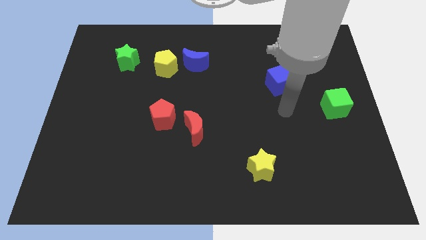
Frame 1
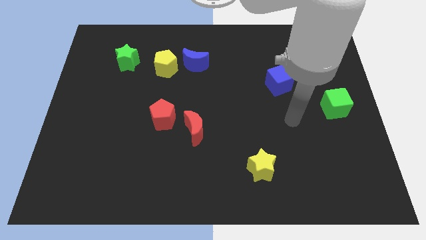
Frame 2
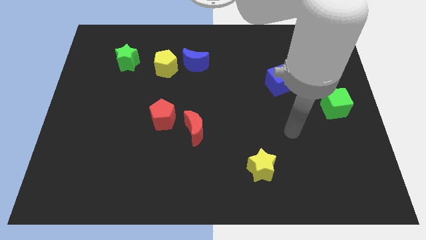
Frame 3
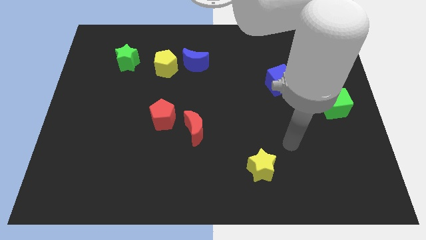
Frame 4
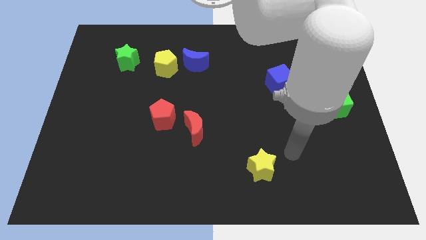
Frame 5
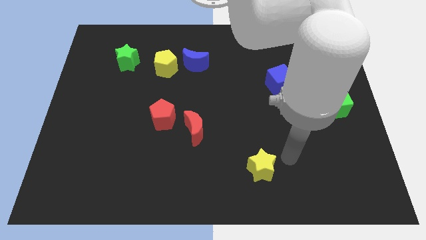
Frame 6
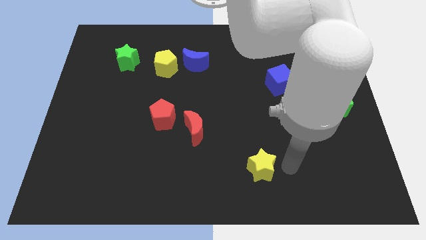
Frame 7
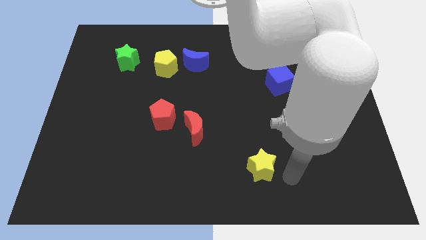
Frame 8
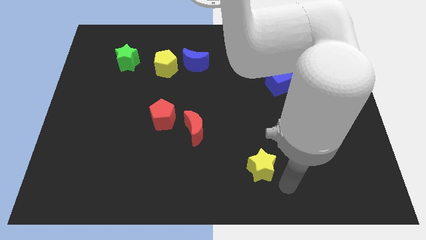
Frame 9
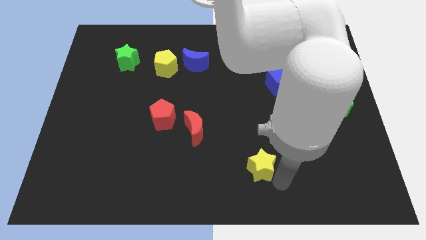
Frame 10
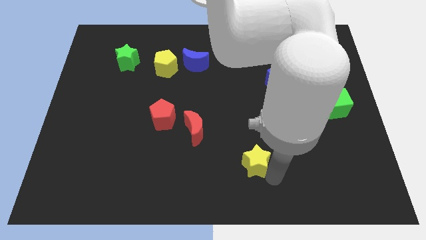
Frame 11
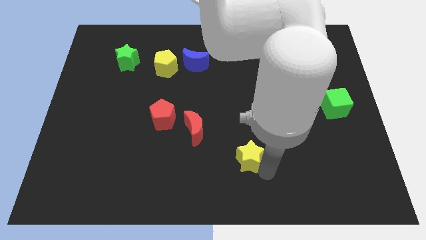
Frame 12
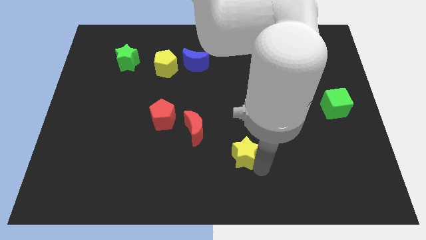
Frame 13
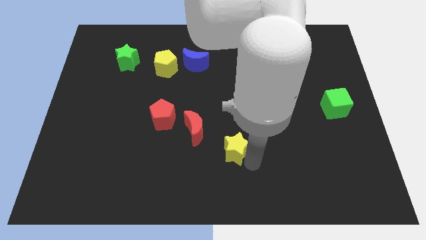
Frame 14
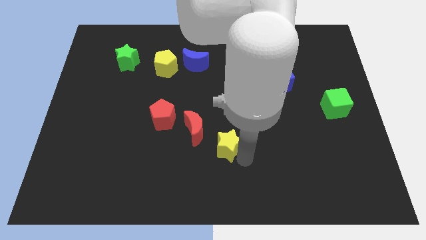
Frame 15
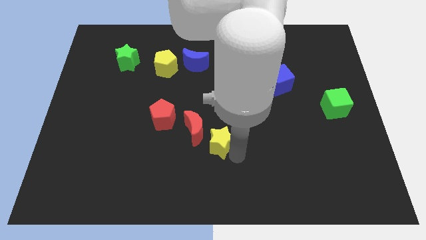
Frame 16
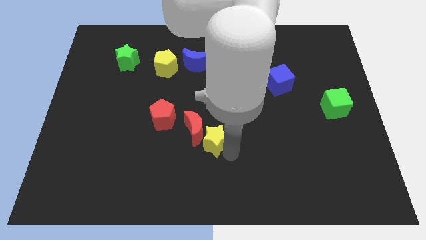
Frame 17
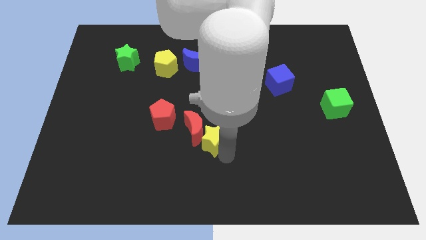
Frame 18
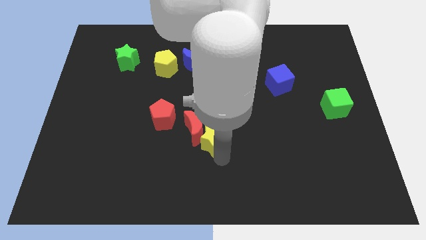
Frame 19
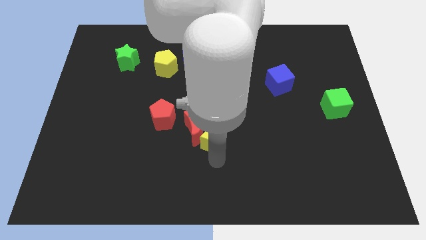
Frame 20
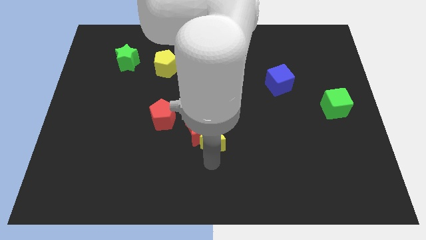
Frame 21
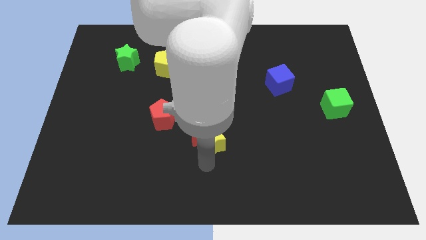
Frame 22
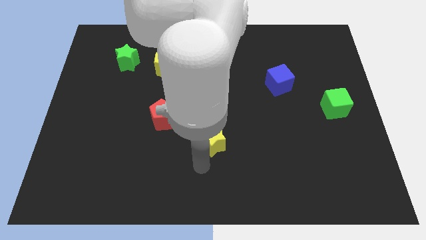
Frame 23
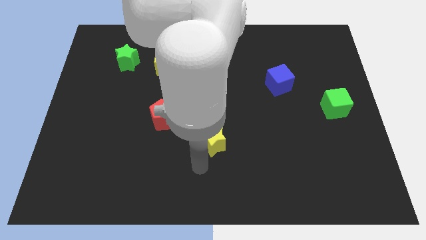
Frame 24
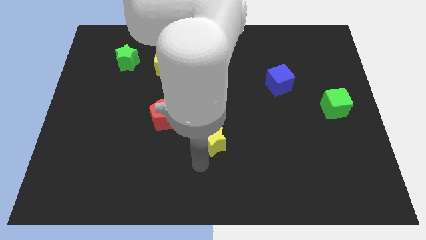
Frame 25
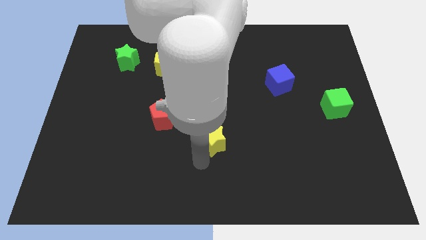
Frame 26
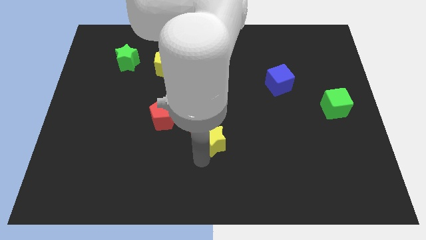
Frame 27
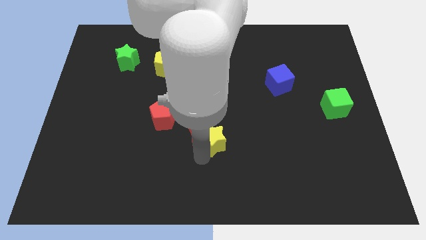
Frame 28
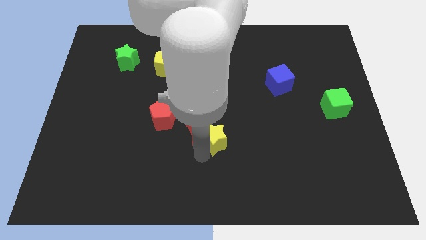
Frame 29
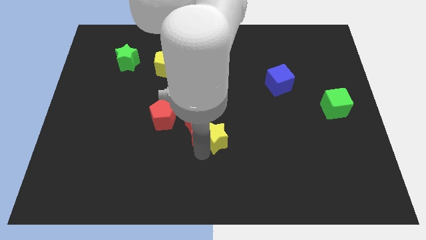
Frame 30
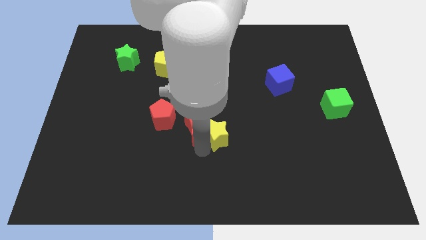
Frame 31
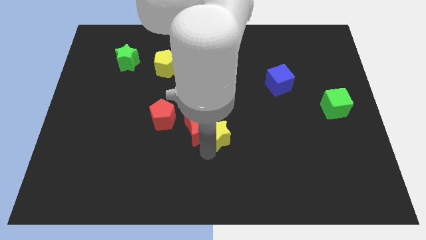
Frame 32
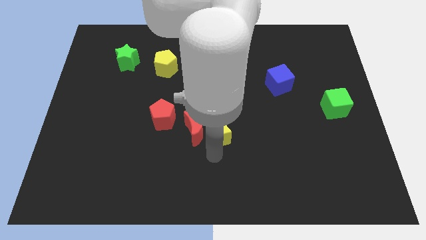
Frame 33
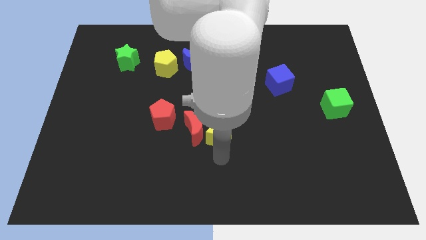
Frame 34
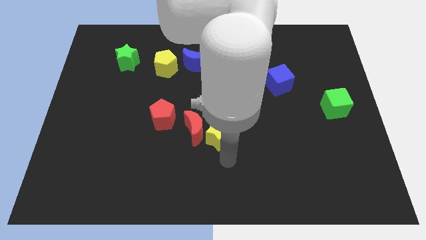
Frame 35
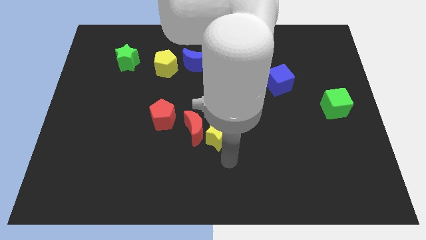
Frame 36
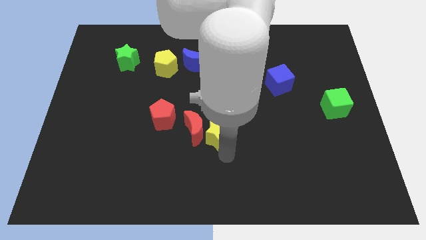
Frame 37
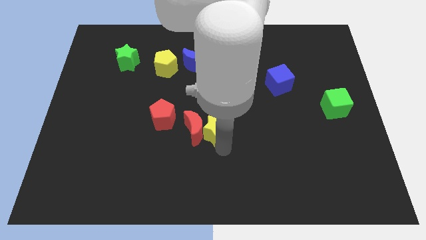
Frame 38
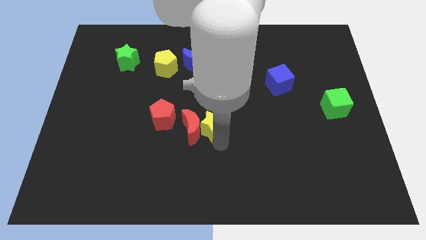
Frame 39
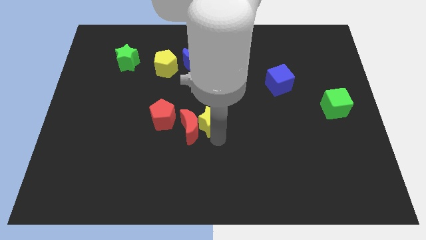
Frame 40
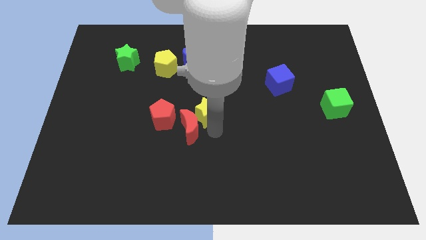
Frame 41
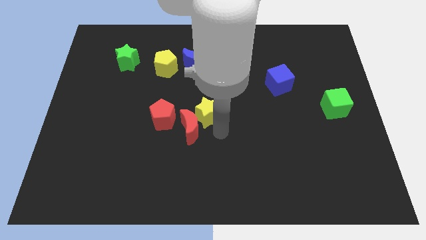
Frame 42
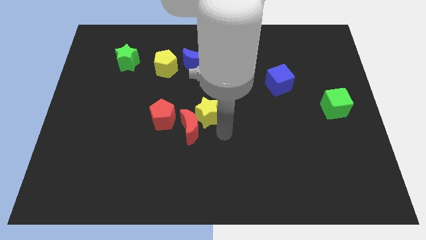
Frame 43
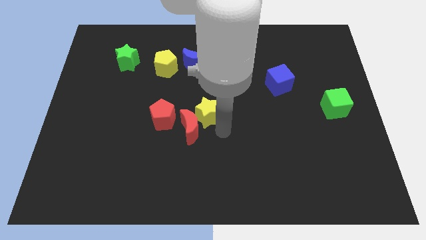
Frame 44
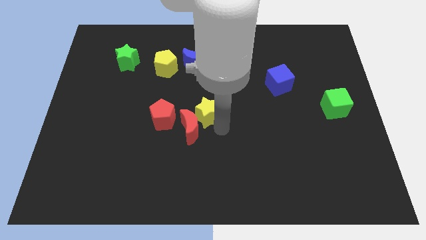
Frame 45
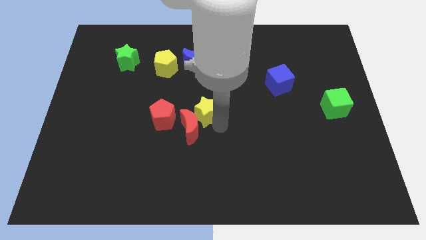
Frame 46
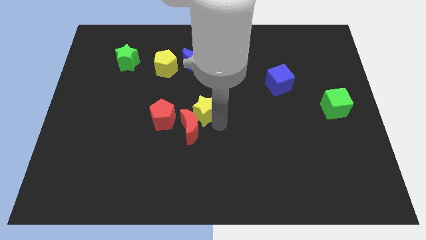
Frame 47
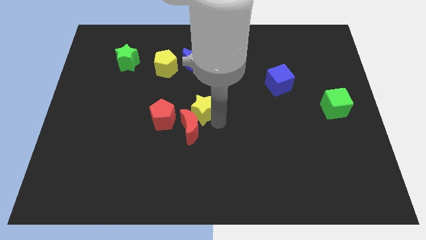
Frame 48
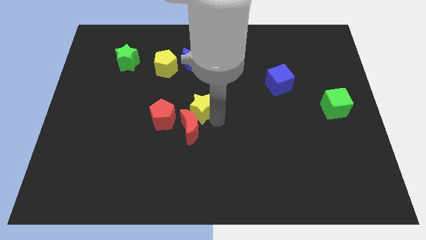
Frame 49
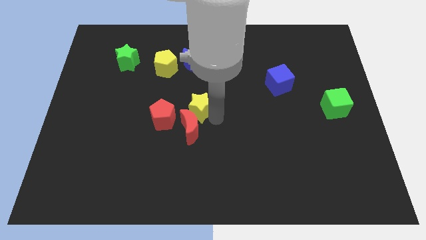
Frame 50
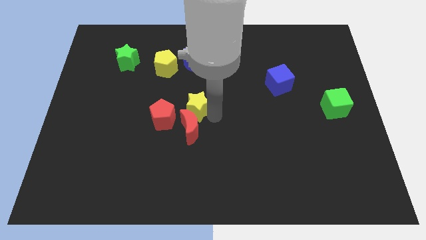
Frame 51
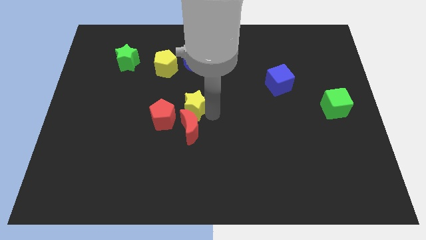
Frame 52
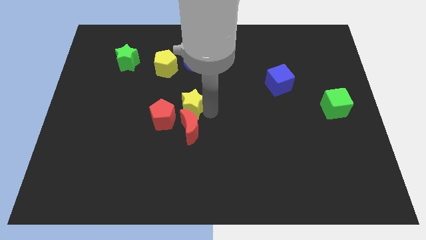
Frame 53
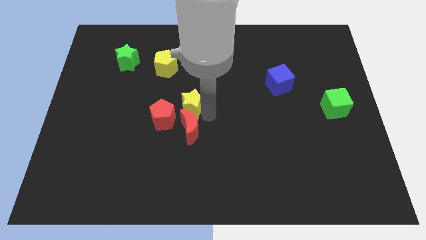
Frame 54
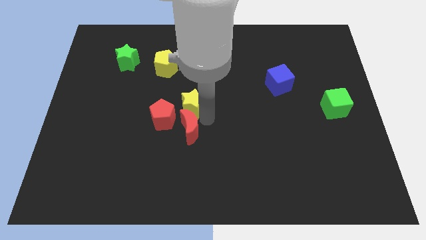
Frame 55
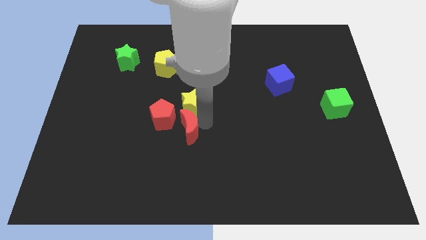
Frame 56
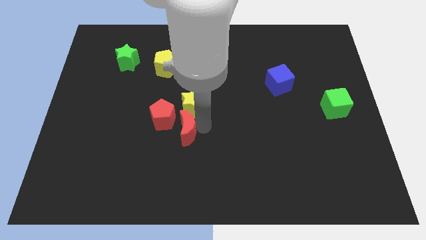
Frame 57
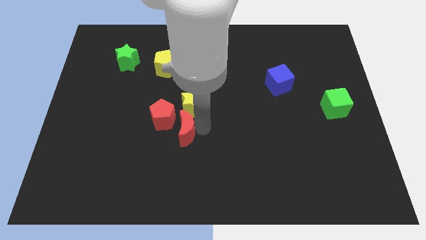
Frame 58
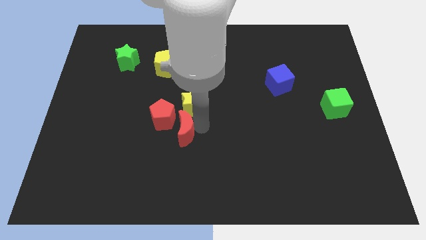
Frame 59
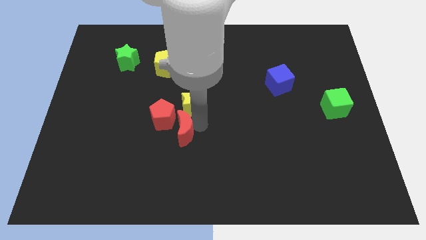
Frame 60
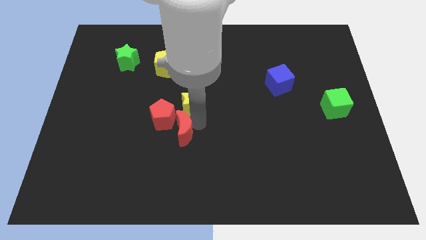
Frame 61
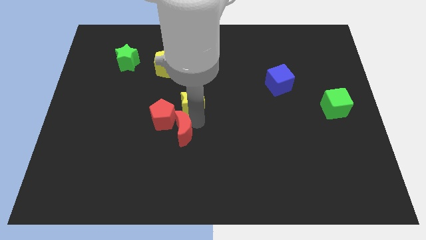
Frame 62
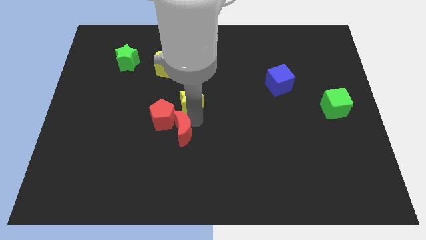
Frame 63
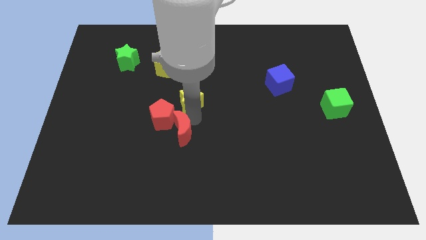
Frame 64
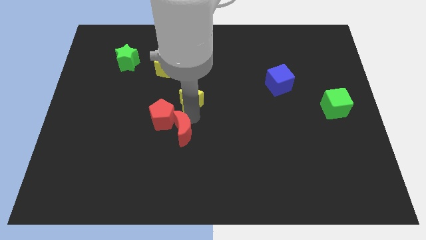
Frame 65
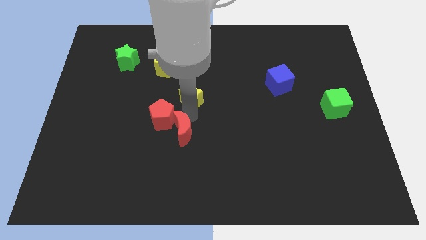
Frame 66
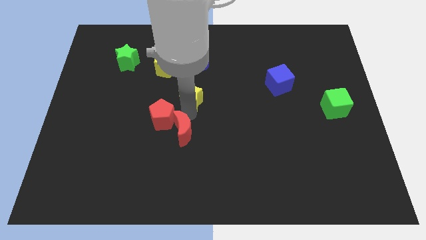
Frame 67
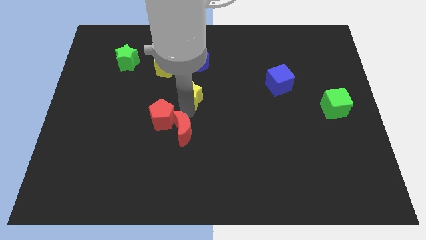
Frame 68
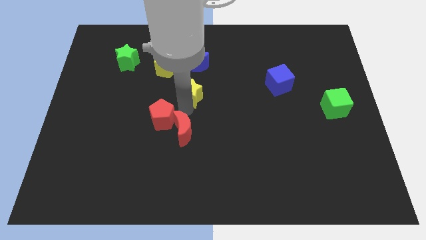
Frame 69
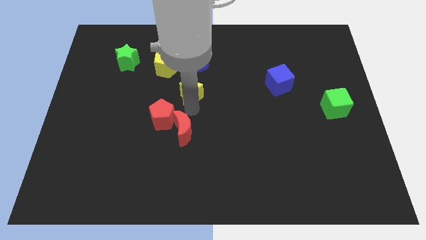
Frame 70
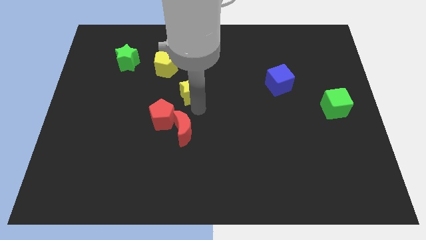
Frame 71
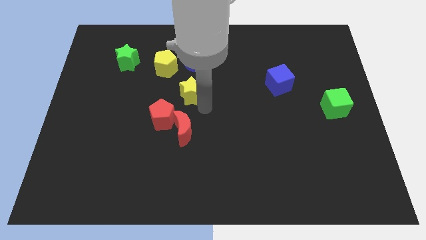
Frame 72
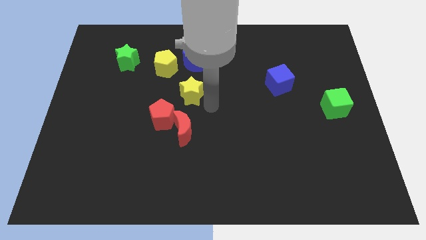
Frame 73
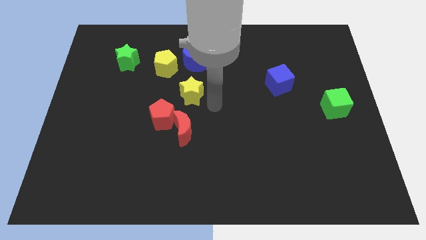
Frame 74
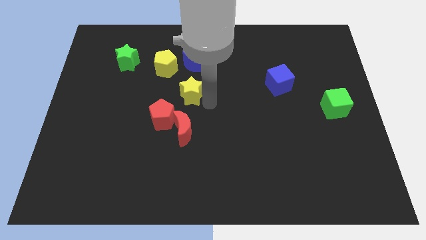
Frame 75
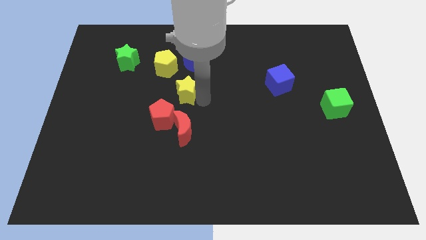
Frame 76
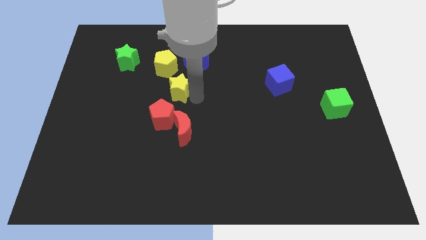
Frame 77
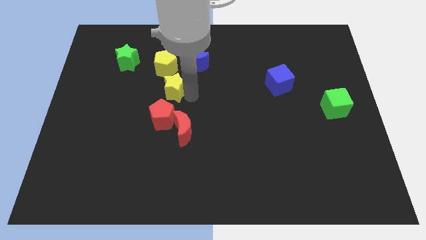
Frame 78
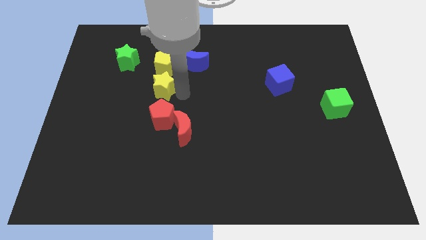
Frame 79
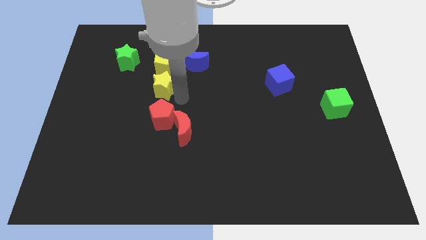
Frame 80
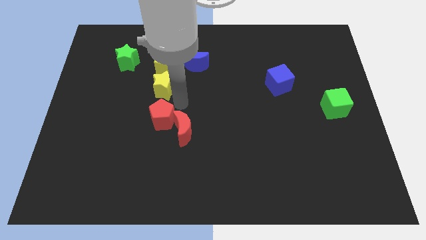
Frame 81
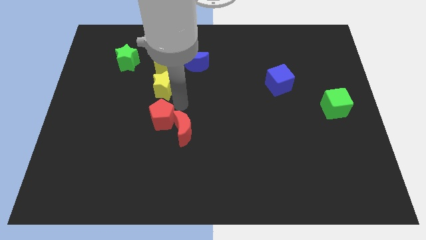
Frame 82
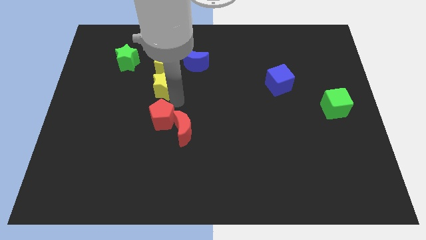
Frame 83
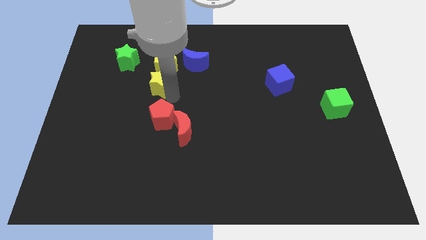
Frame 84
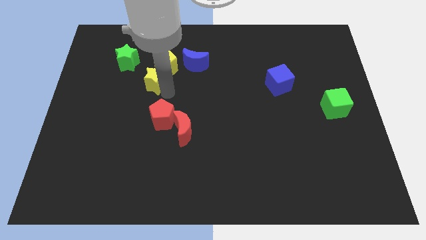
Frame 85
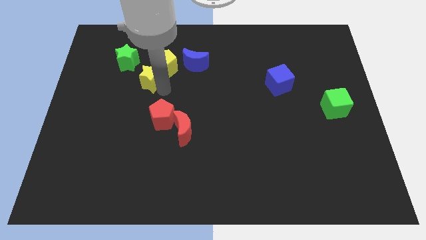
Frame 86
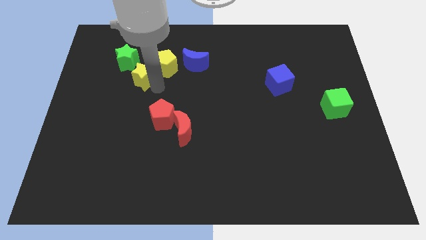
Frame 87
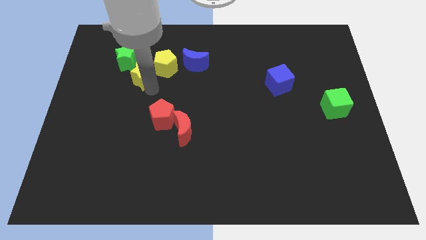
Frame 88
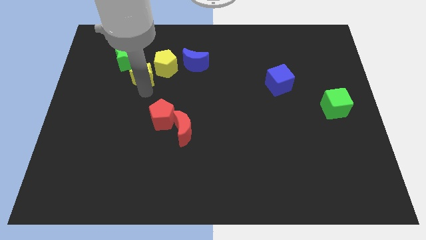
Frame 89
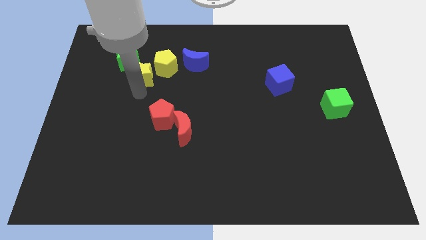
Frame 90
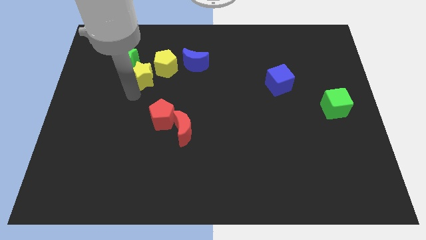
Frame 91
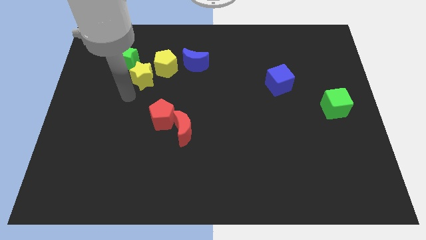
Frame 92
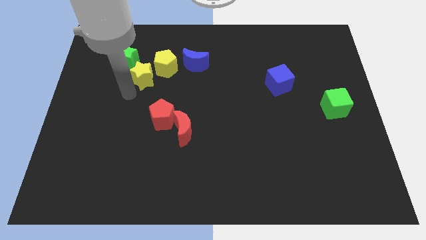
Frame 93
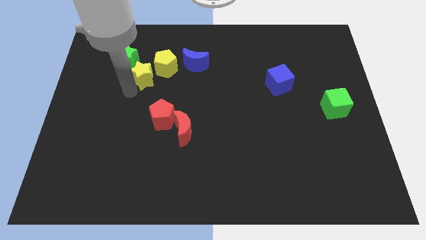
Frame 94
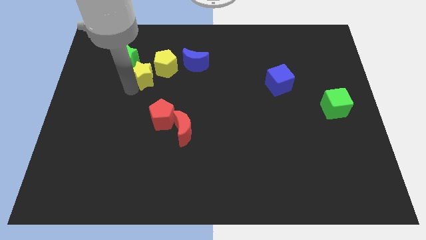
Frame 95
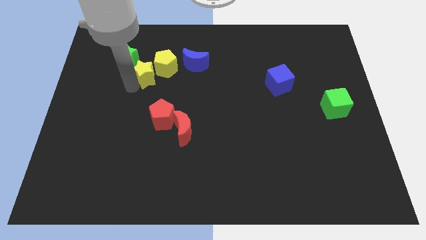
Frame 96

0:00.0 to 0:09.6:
put the yellow star to the left of the blue moon
